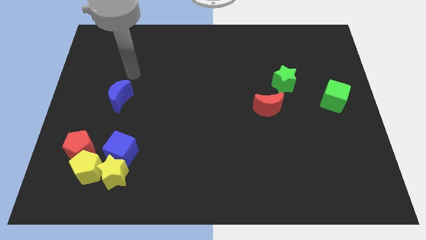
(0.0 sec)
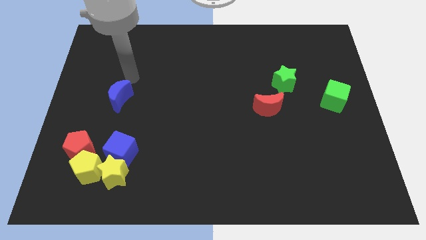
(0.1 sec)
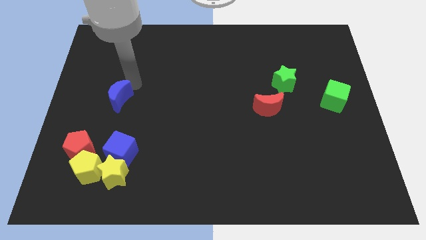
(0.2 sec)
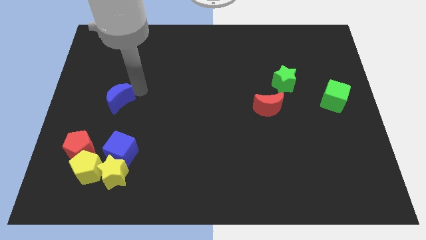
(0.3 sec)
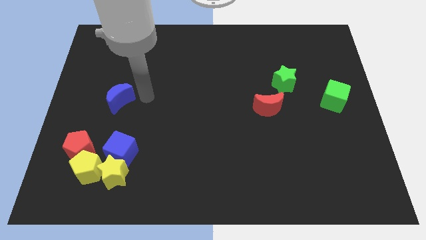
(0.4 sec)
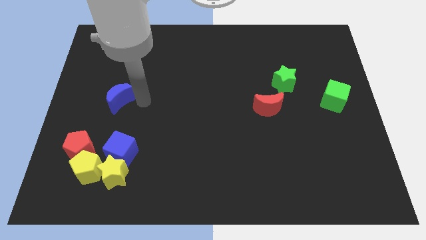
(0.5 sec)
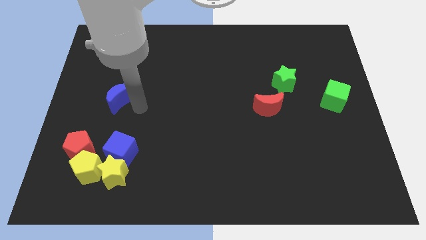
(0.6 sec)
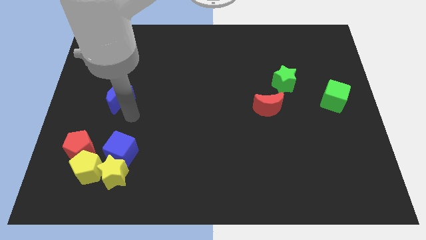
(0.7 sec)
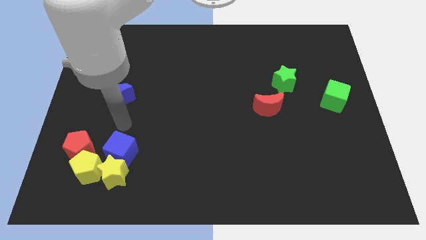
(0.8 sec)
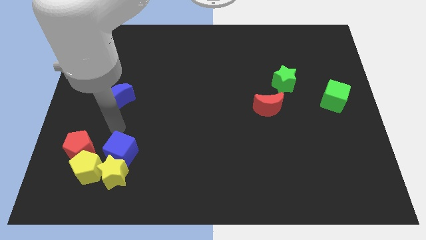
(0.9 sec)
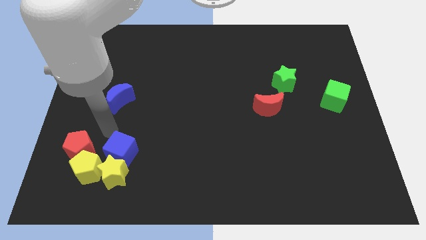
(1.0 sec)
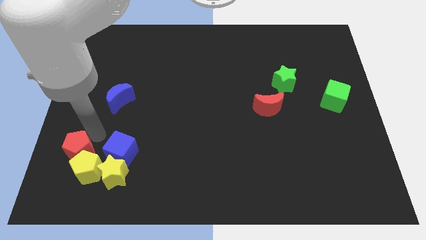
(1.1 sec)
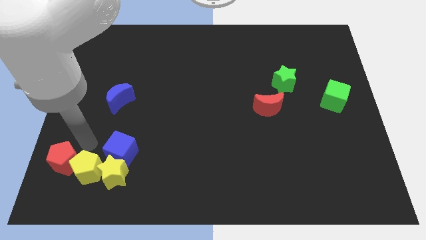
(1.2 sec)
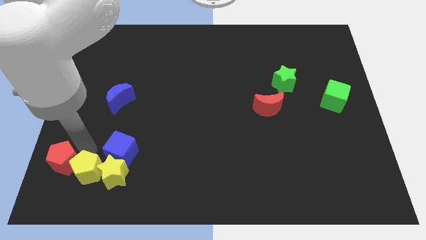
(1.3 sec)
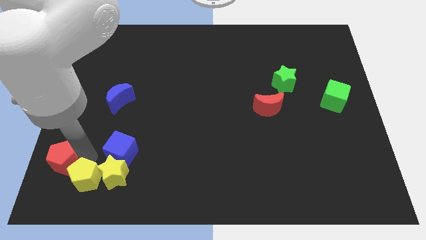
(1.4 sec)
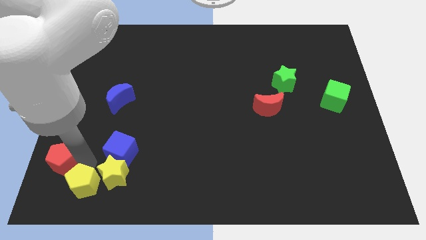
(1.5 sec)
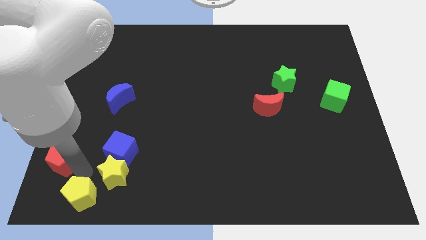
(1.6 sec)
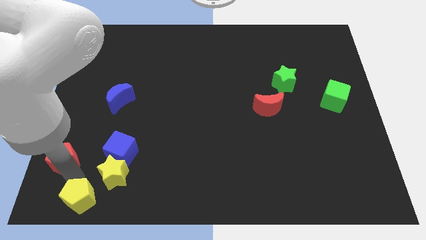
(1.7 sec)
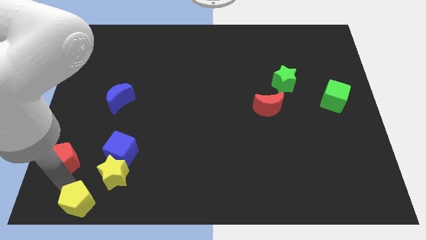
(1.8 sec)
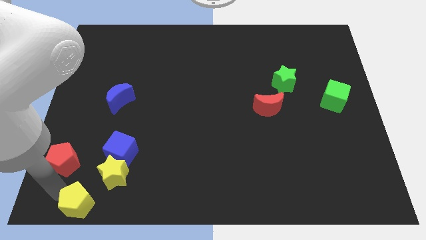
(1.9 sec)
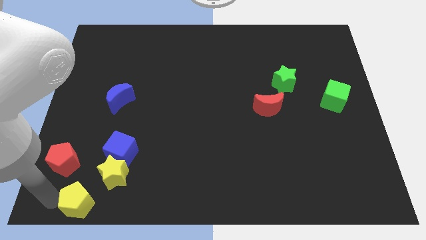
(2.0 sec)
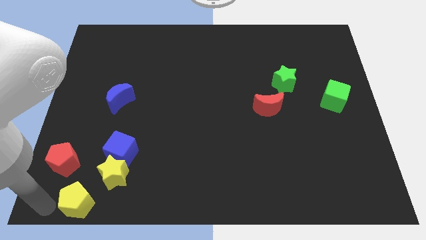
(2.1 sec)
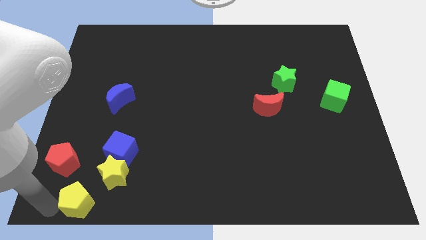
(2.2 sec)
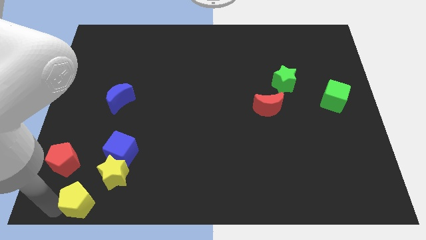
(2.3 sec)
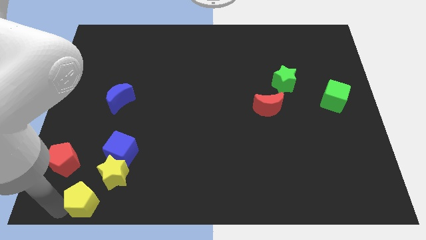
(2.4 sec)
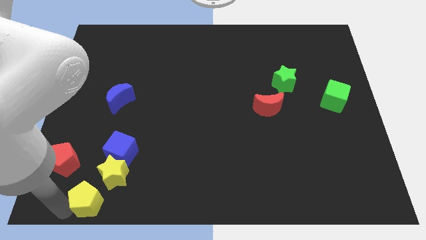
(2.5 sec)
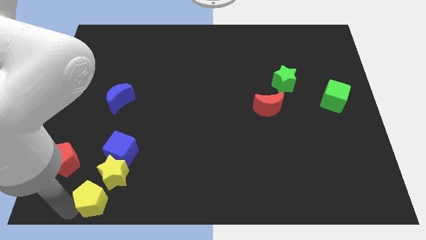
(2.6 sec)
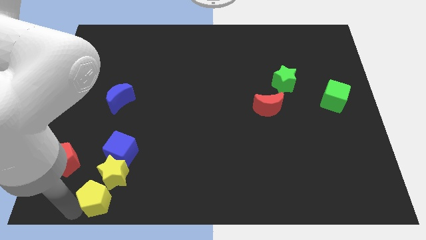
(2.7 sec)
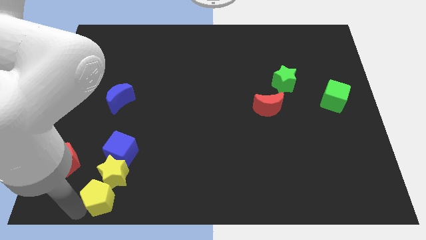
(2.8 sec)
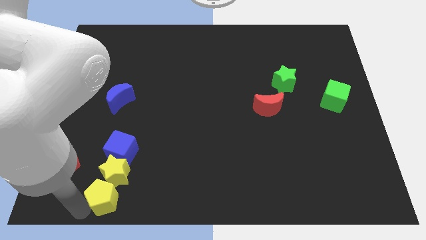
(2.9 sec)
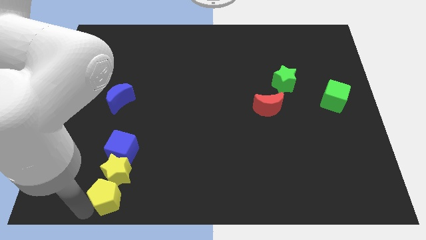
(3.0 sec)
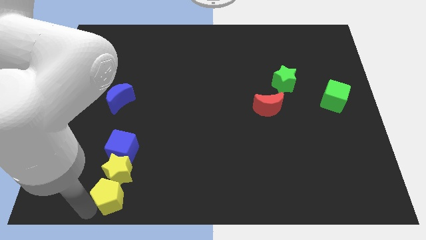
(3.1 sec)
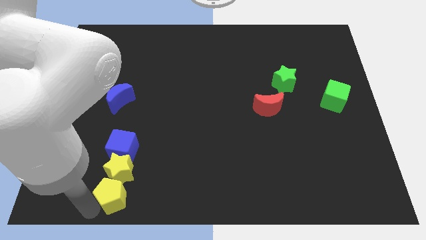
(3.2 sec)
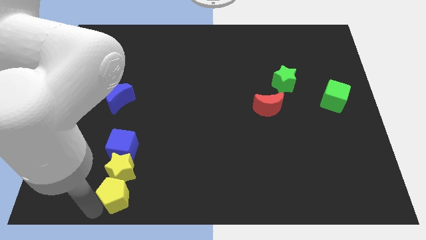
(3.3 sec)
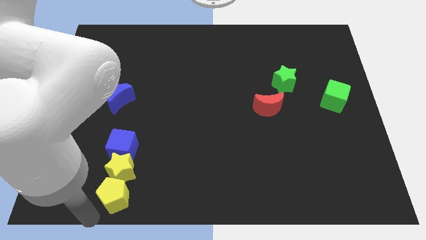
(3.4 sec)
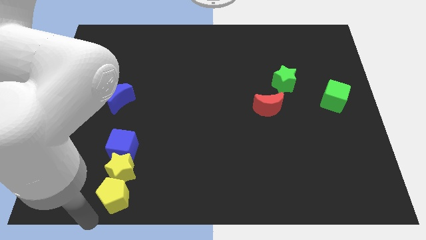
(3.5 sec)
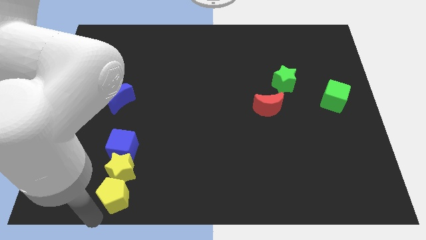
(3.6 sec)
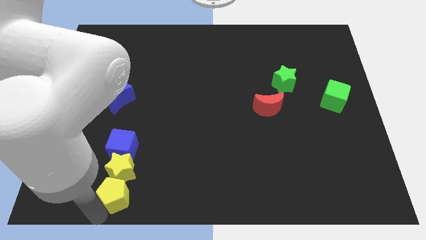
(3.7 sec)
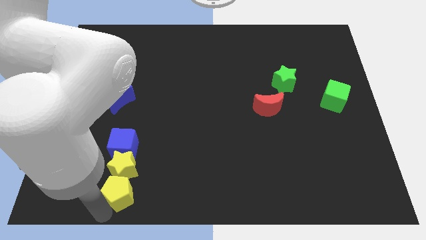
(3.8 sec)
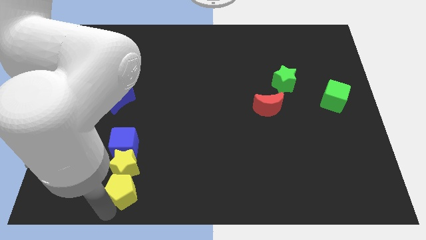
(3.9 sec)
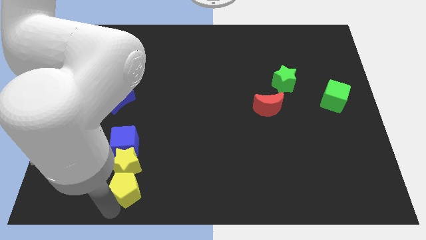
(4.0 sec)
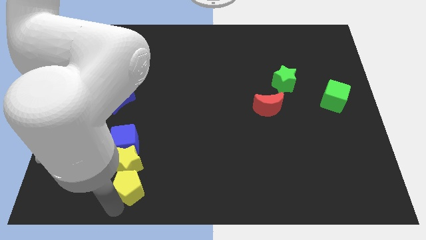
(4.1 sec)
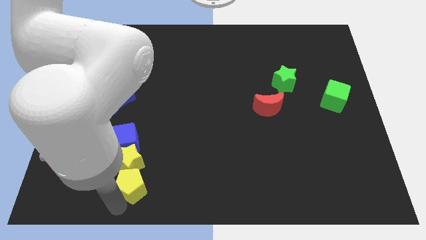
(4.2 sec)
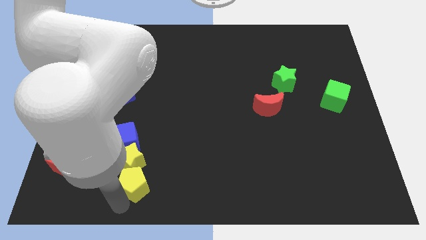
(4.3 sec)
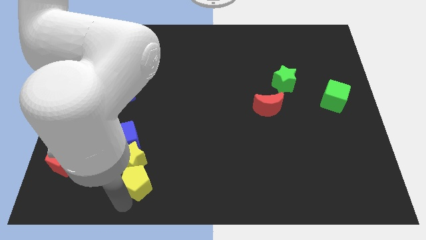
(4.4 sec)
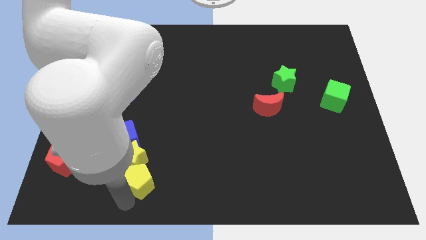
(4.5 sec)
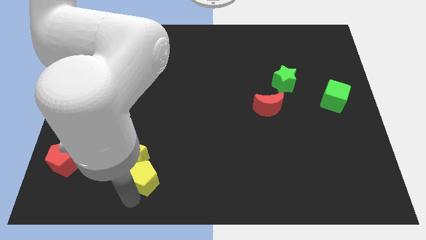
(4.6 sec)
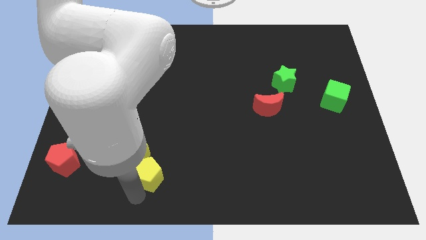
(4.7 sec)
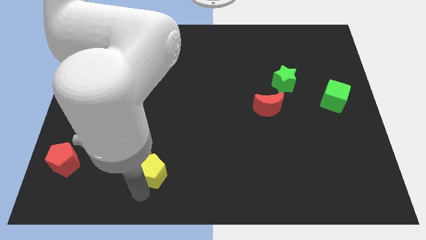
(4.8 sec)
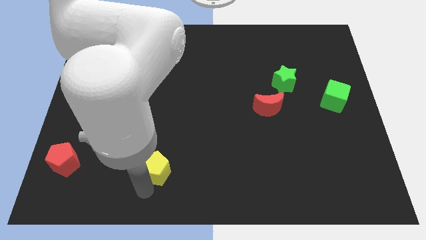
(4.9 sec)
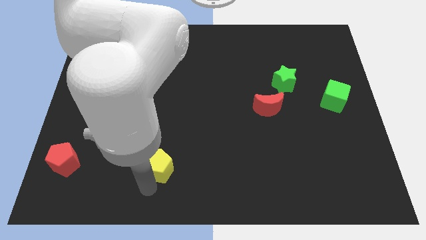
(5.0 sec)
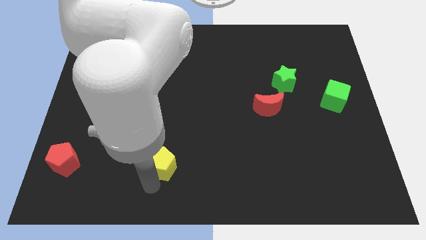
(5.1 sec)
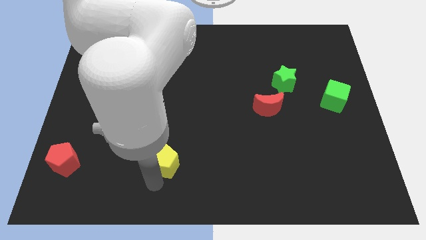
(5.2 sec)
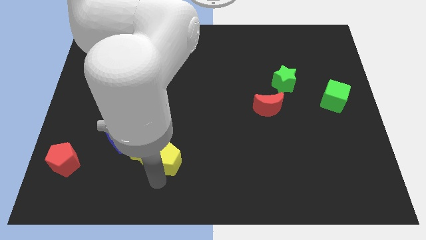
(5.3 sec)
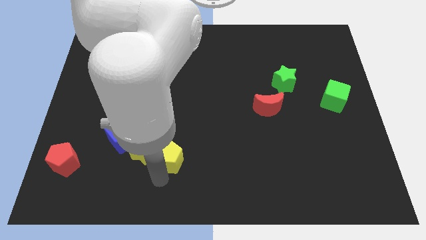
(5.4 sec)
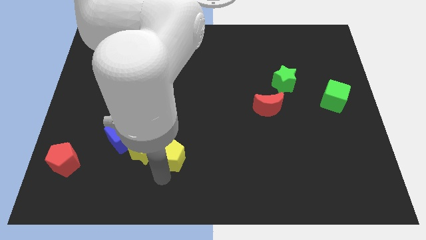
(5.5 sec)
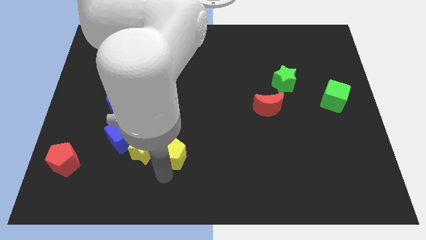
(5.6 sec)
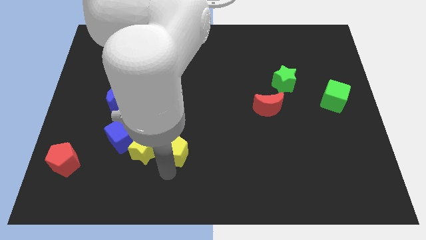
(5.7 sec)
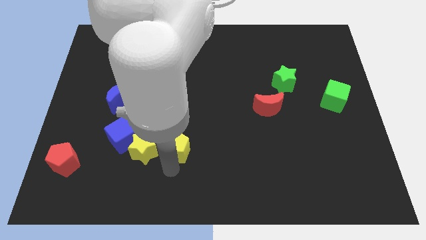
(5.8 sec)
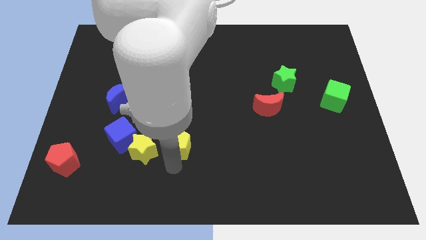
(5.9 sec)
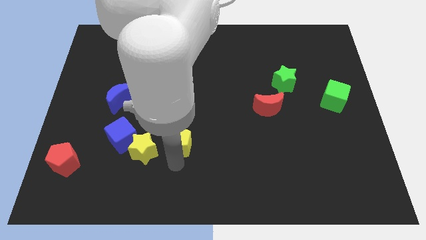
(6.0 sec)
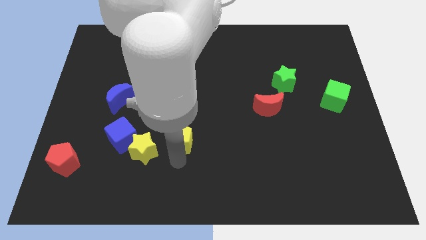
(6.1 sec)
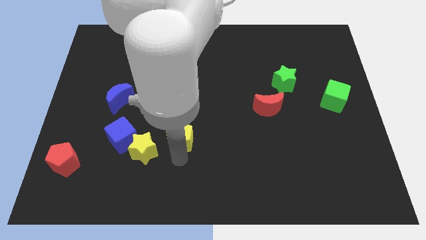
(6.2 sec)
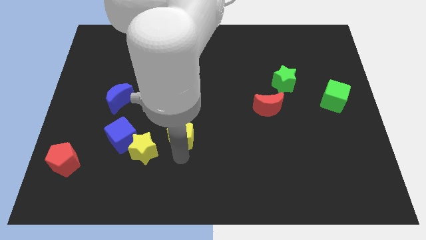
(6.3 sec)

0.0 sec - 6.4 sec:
push the yellow pentagon to the middle of the board
